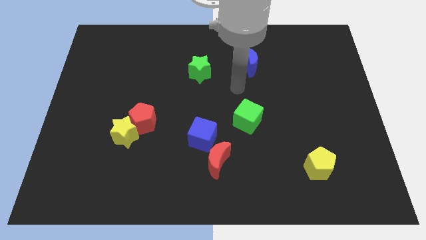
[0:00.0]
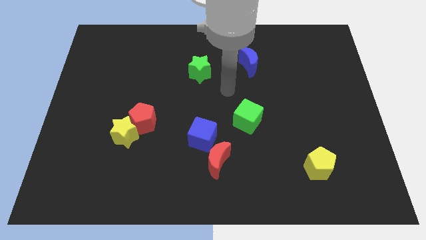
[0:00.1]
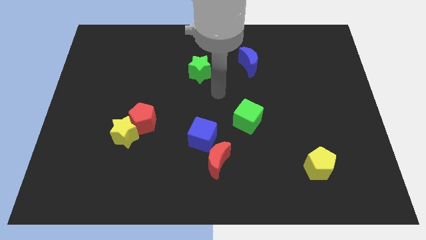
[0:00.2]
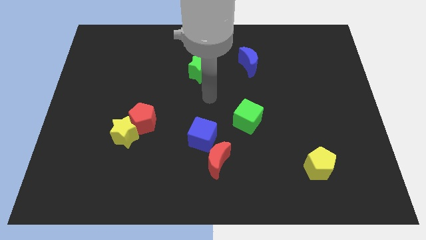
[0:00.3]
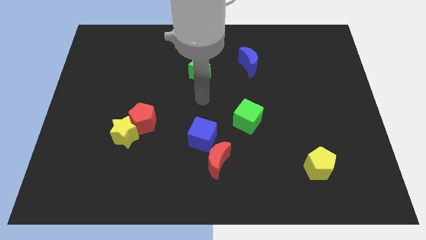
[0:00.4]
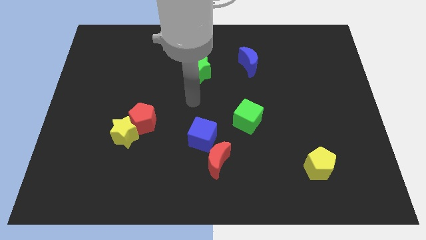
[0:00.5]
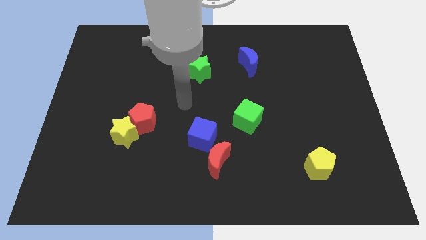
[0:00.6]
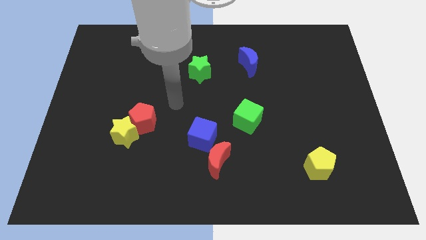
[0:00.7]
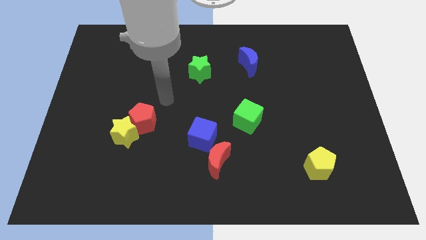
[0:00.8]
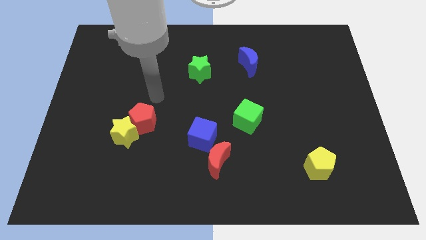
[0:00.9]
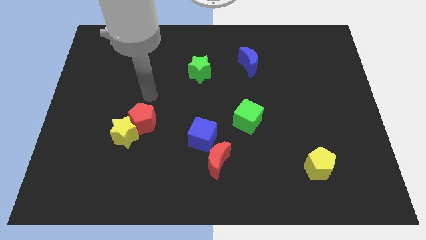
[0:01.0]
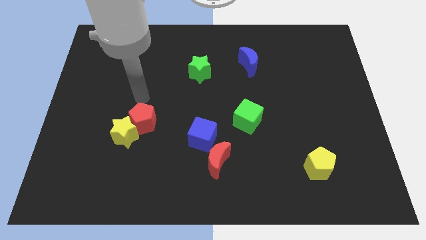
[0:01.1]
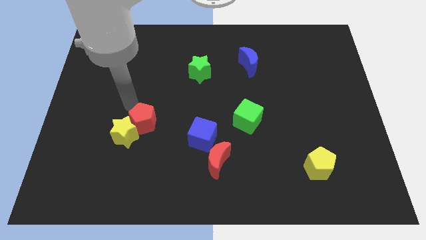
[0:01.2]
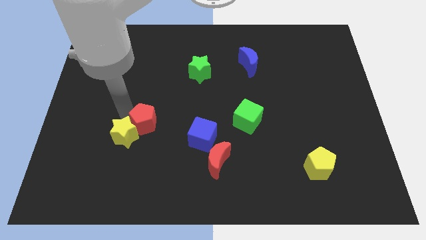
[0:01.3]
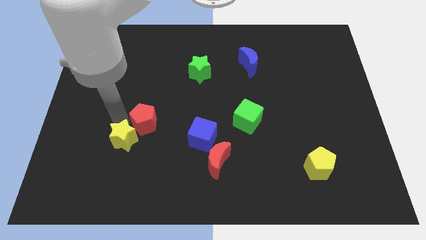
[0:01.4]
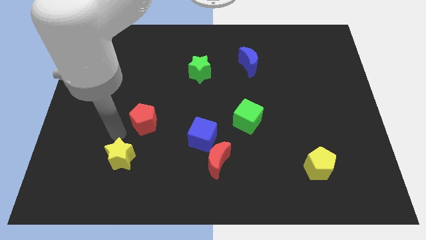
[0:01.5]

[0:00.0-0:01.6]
separate the red pentagon from the yellow star

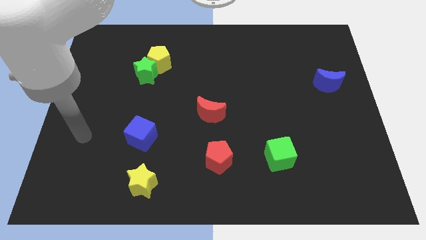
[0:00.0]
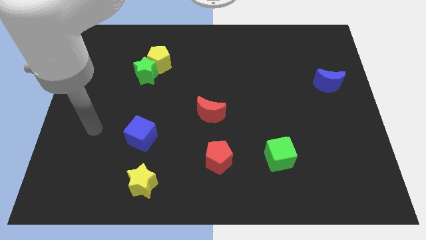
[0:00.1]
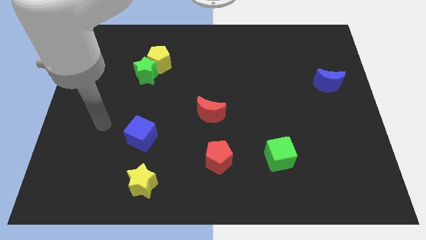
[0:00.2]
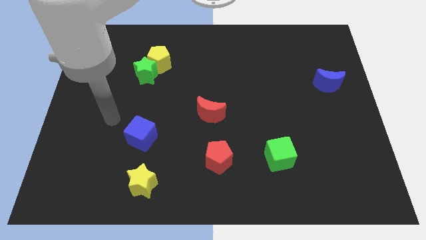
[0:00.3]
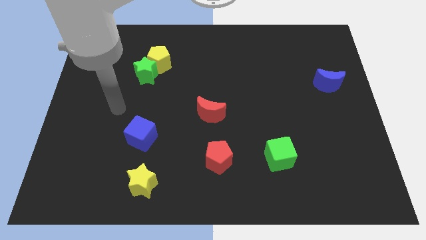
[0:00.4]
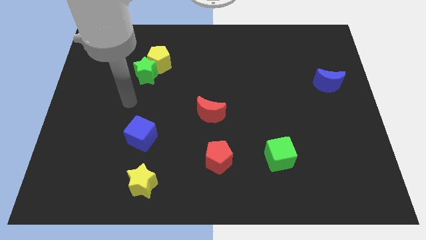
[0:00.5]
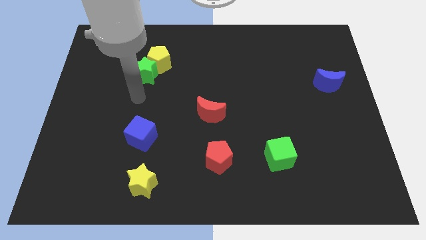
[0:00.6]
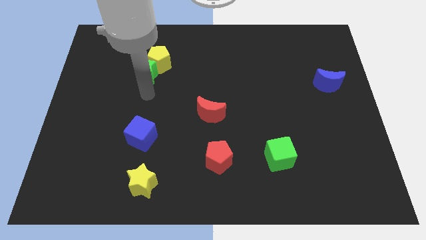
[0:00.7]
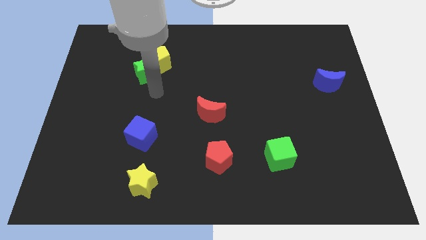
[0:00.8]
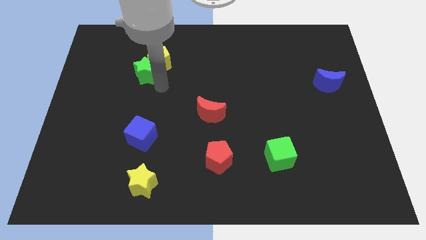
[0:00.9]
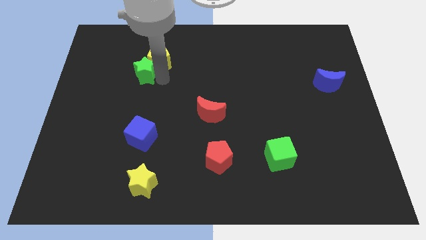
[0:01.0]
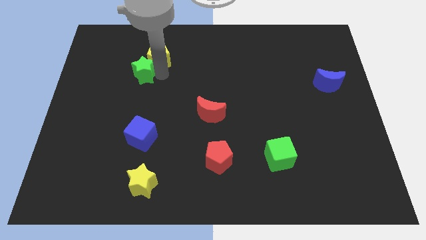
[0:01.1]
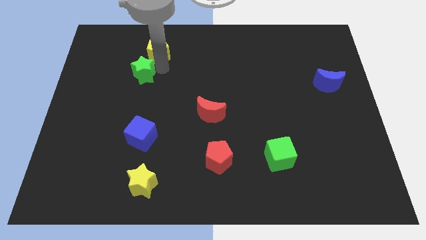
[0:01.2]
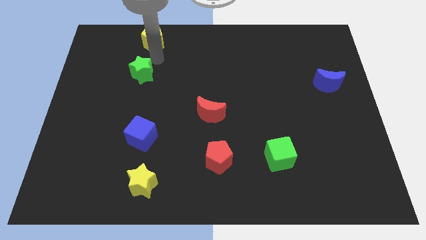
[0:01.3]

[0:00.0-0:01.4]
pull the green star apart from the yellow pentagon

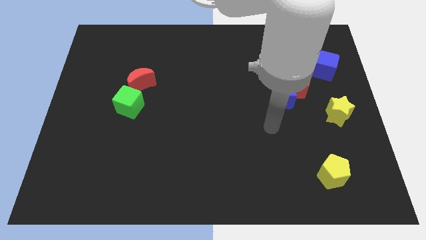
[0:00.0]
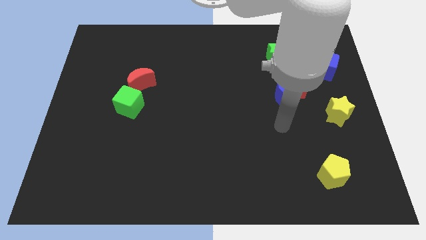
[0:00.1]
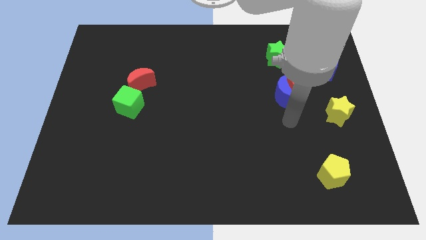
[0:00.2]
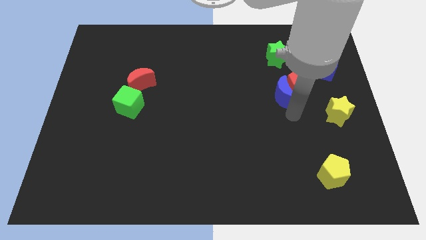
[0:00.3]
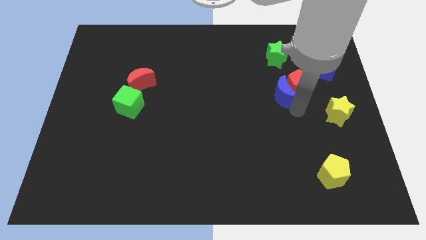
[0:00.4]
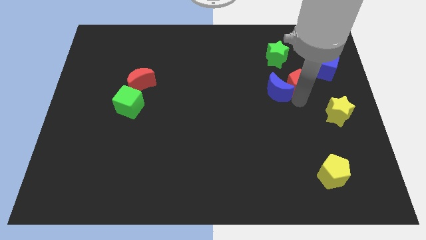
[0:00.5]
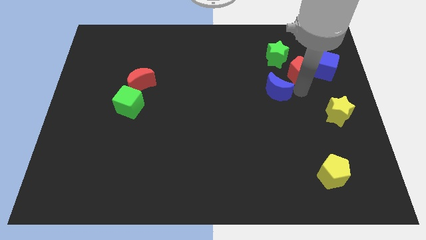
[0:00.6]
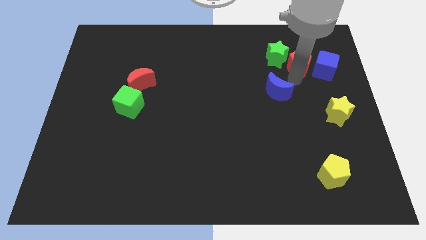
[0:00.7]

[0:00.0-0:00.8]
move the blue moon away from the red pentagon

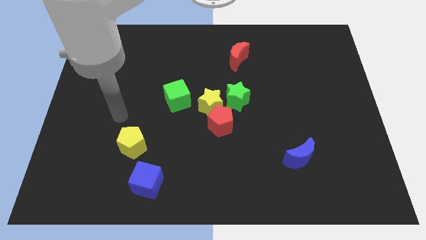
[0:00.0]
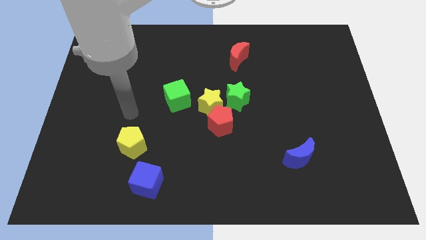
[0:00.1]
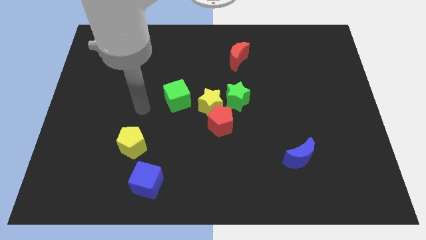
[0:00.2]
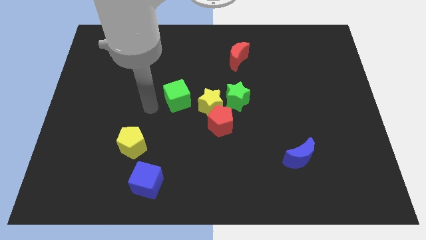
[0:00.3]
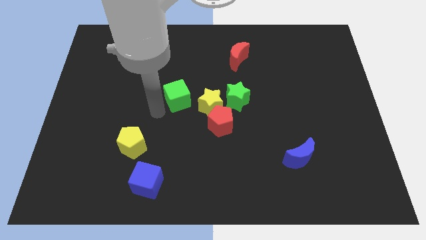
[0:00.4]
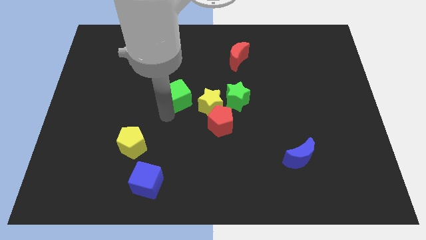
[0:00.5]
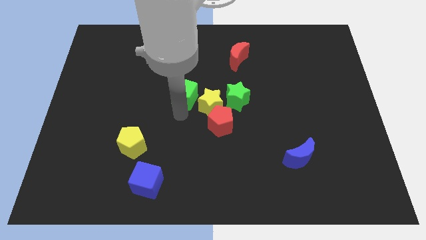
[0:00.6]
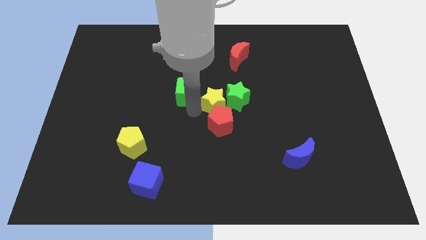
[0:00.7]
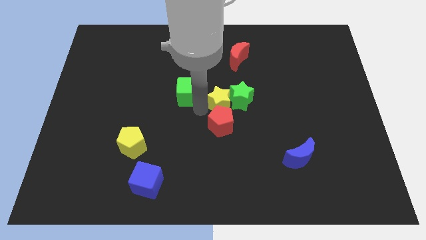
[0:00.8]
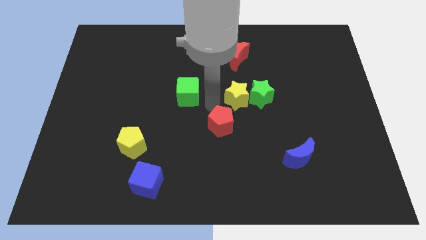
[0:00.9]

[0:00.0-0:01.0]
separate the red pentagon from the yellow star and green star

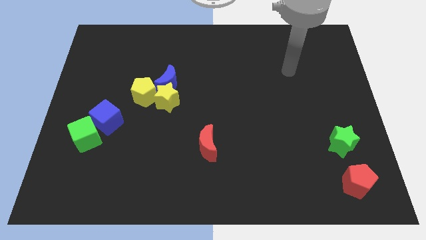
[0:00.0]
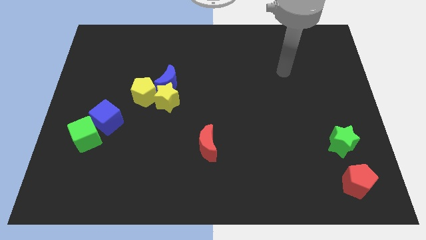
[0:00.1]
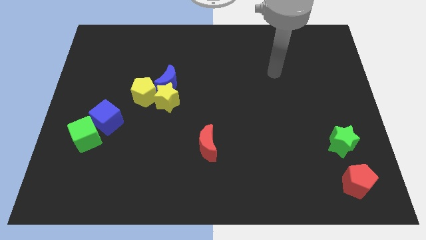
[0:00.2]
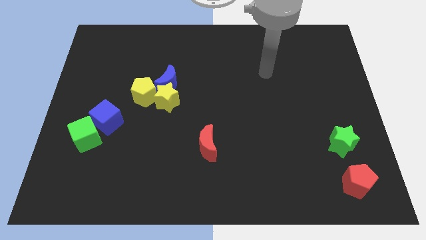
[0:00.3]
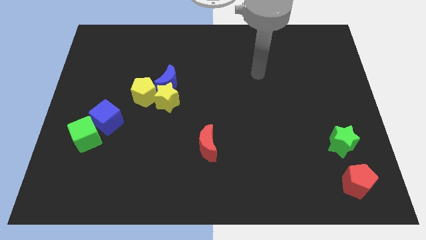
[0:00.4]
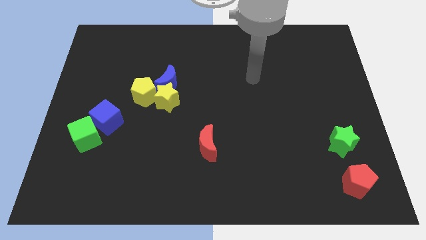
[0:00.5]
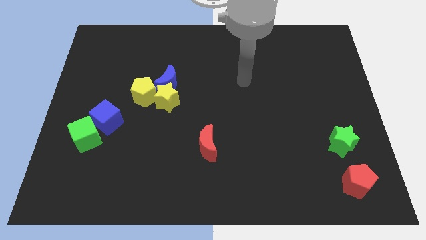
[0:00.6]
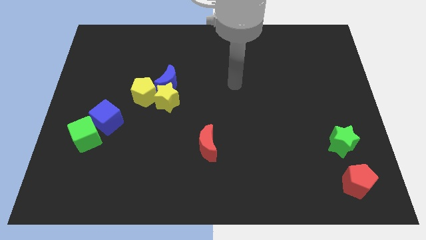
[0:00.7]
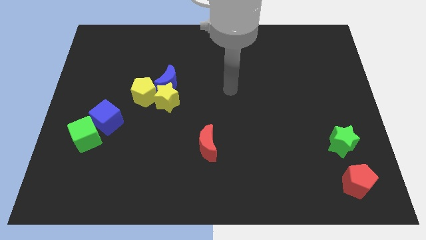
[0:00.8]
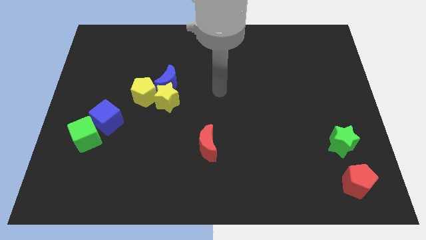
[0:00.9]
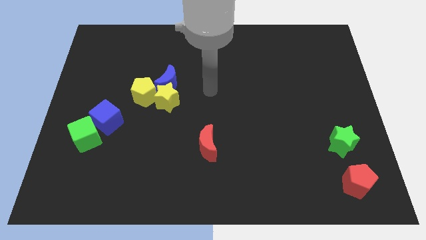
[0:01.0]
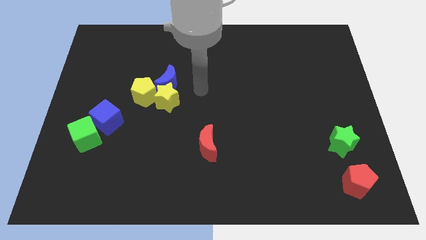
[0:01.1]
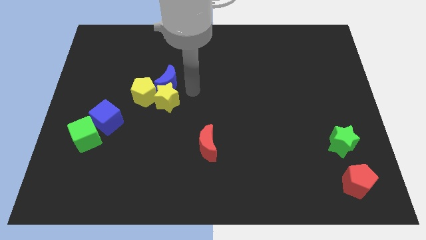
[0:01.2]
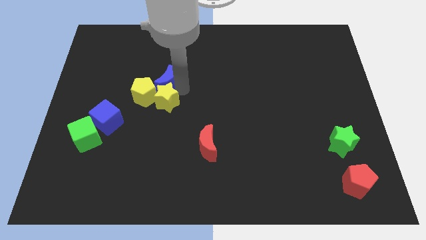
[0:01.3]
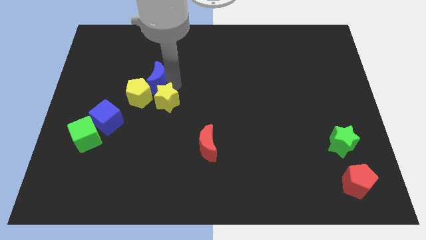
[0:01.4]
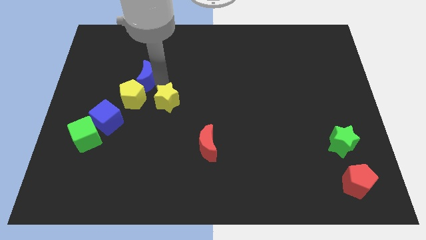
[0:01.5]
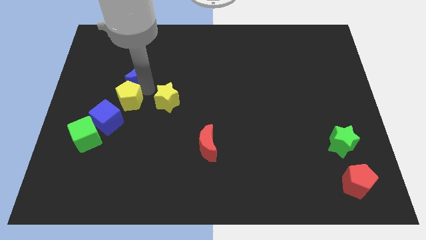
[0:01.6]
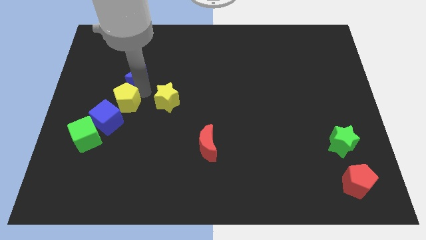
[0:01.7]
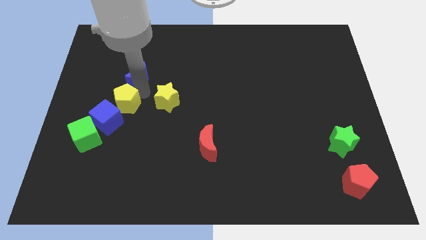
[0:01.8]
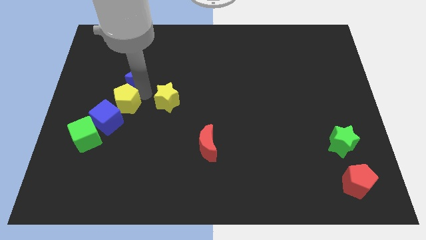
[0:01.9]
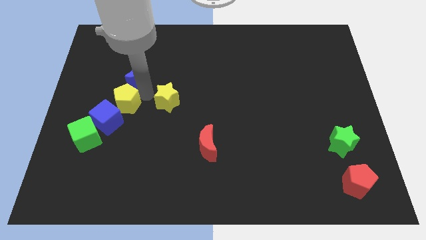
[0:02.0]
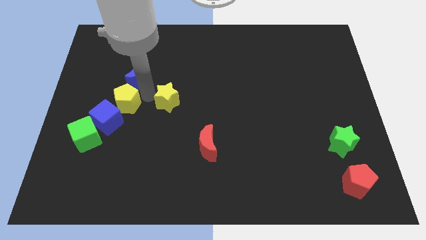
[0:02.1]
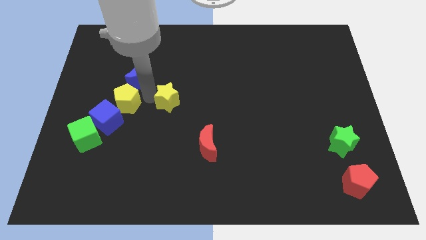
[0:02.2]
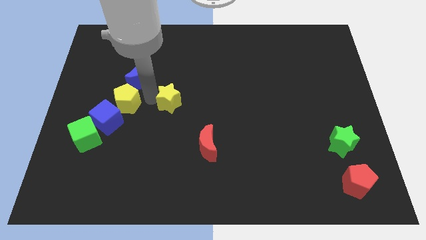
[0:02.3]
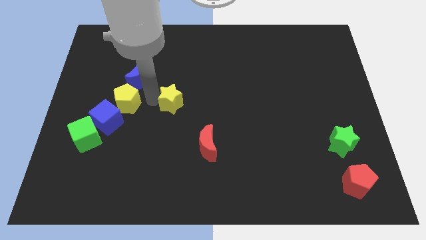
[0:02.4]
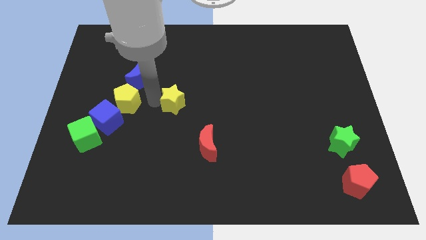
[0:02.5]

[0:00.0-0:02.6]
move the yellow star away from the blue moon and yellow pentagon

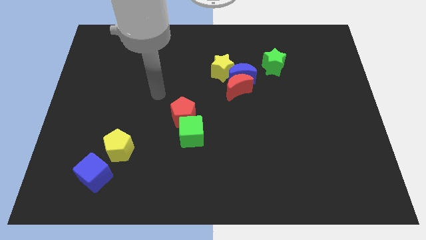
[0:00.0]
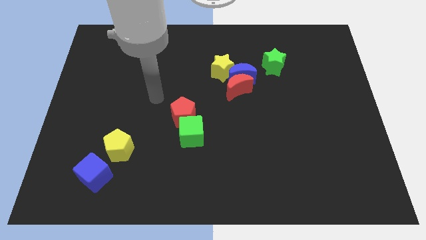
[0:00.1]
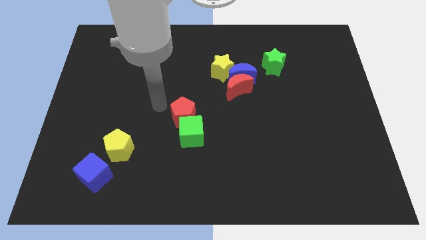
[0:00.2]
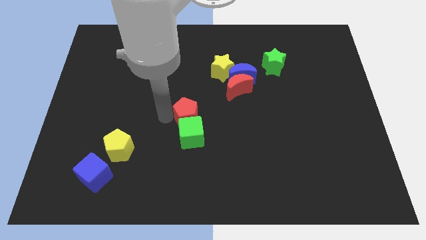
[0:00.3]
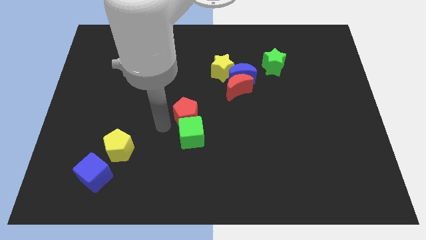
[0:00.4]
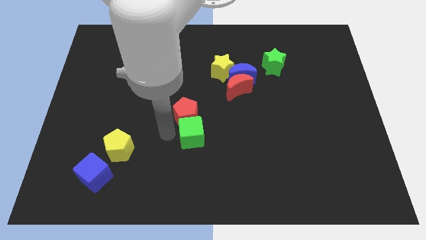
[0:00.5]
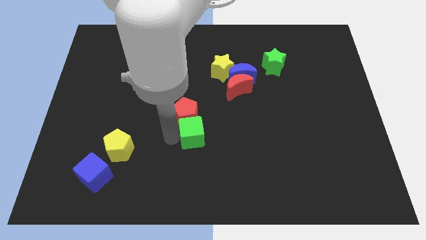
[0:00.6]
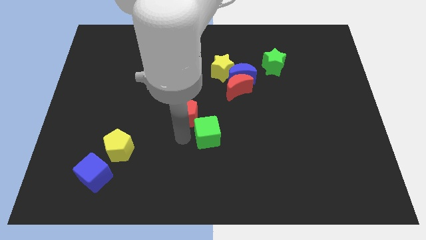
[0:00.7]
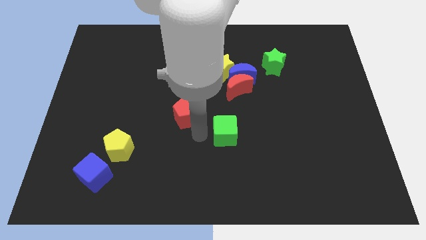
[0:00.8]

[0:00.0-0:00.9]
pull the red pentagon apart from the green cube

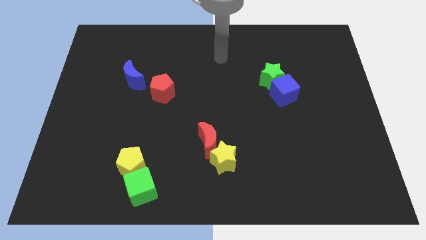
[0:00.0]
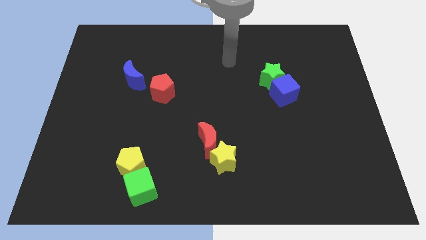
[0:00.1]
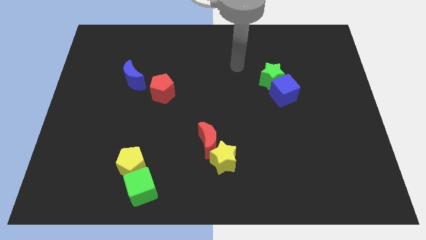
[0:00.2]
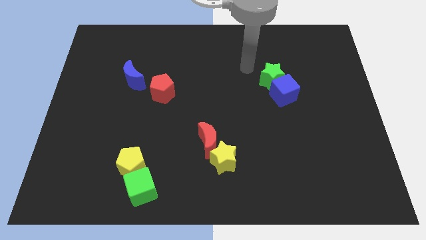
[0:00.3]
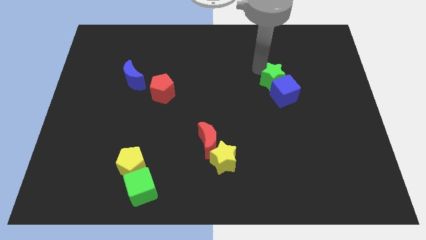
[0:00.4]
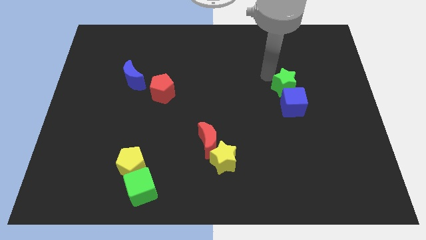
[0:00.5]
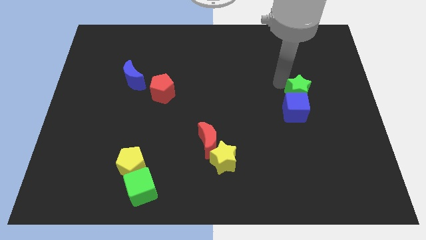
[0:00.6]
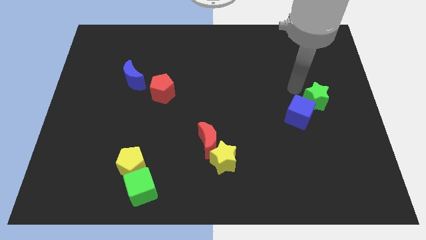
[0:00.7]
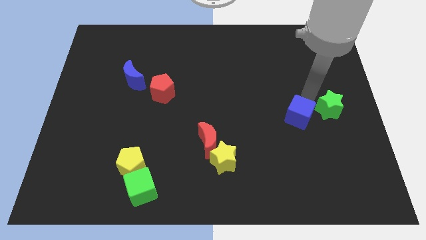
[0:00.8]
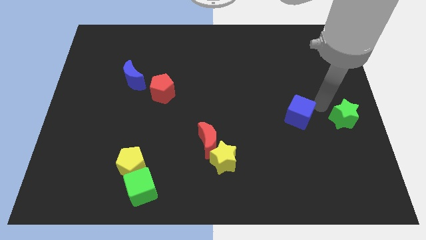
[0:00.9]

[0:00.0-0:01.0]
move the blue cube away from the green star
